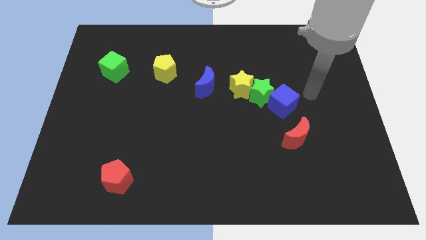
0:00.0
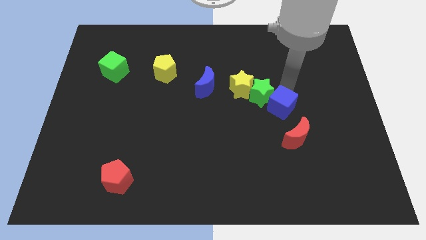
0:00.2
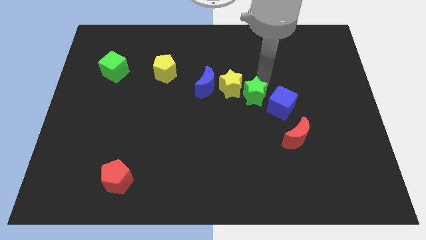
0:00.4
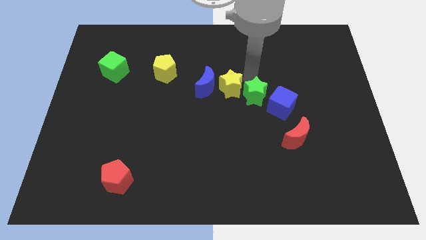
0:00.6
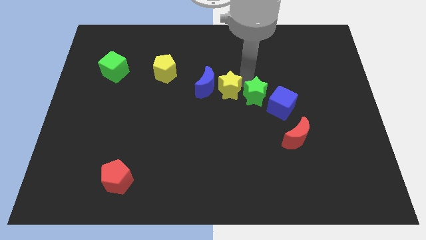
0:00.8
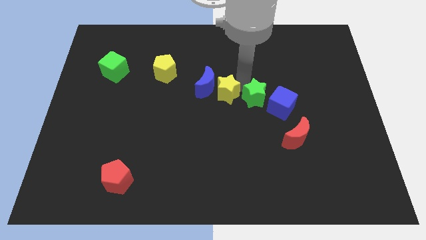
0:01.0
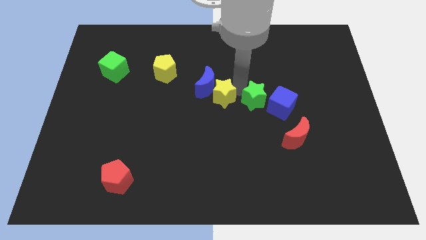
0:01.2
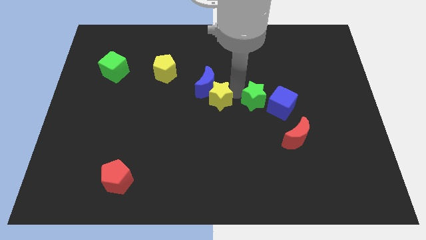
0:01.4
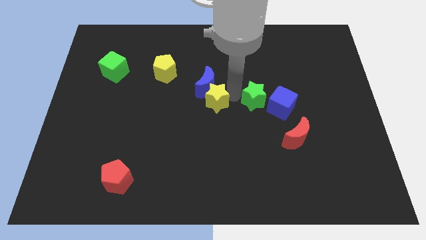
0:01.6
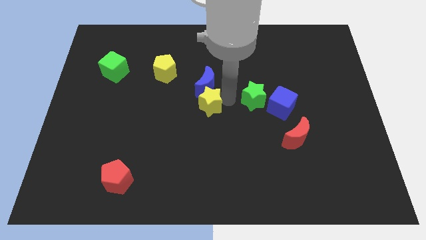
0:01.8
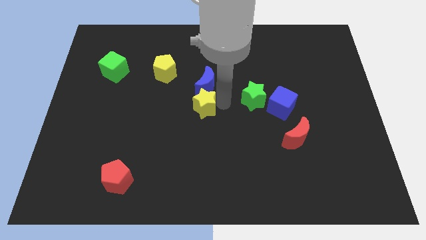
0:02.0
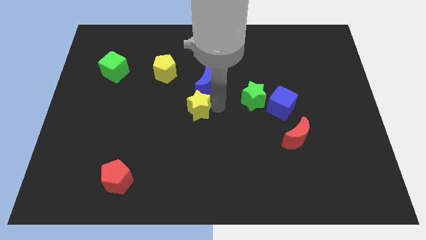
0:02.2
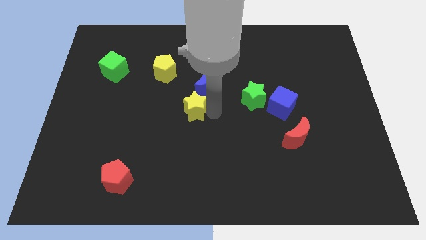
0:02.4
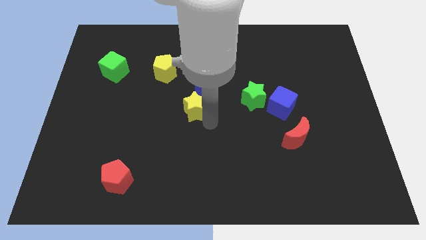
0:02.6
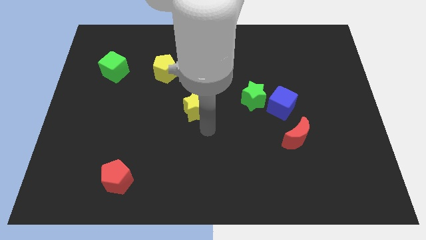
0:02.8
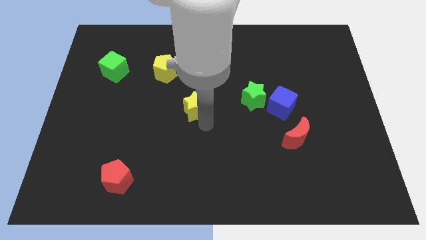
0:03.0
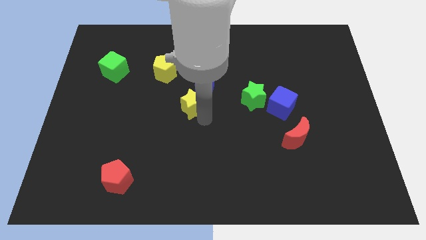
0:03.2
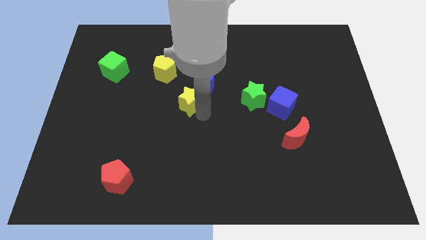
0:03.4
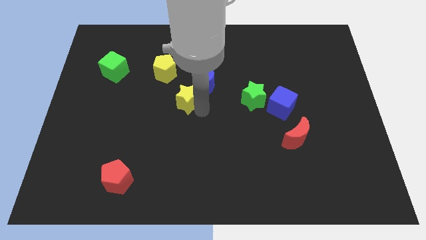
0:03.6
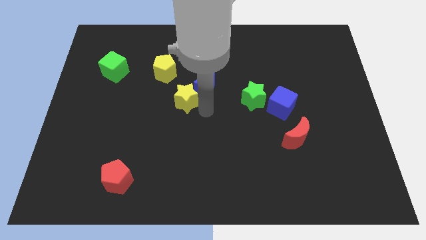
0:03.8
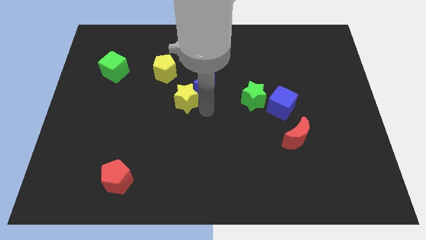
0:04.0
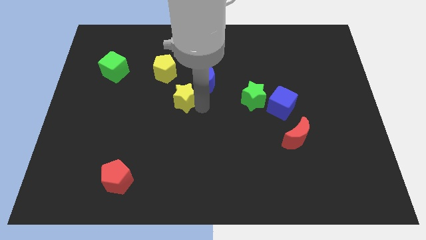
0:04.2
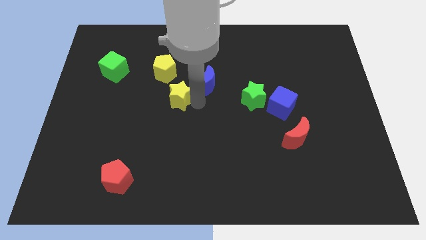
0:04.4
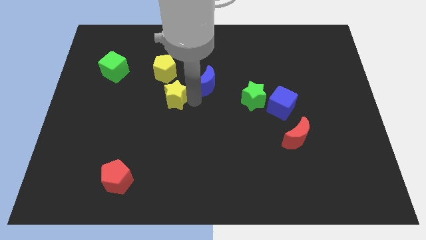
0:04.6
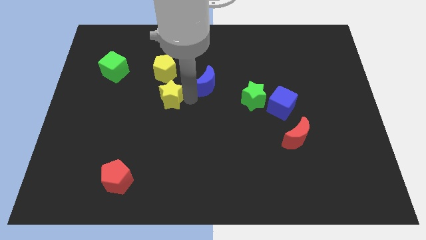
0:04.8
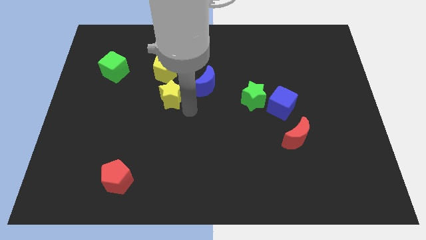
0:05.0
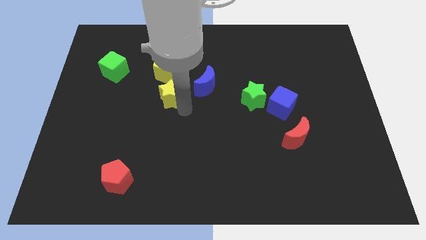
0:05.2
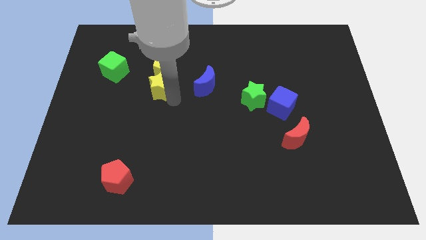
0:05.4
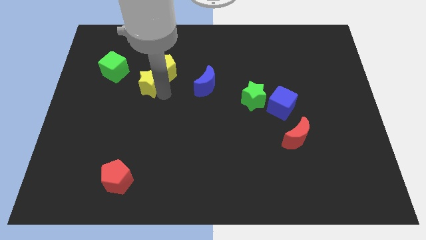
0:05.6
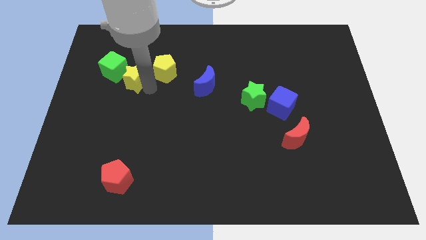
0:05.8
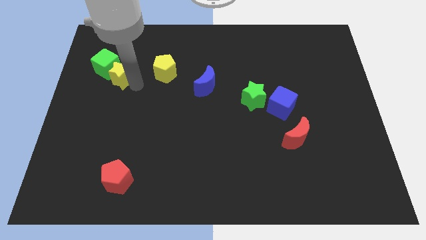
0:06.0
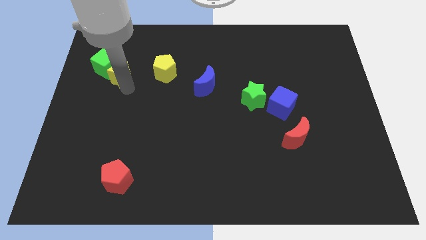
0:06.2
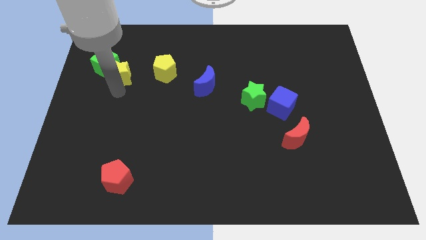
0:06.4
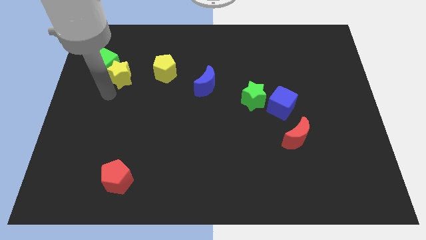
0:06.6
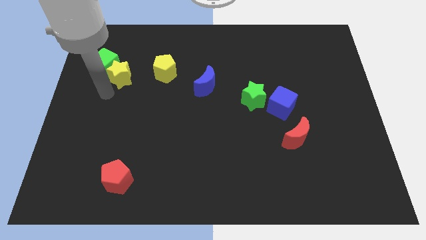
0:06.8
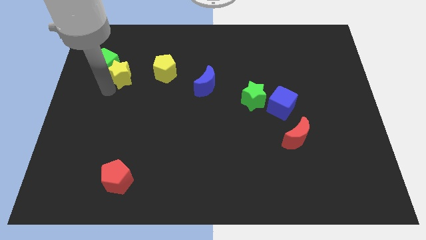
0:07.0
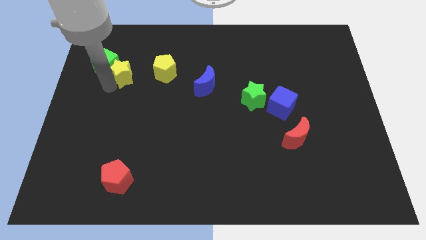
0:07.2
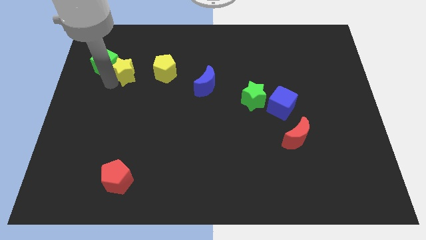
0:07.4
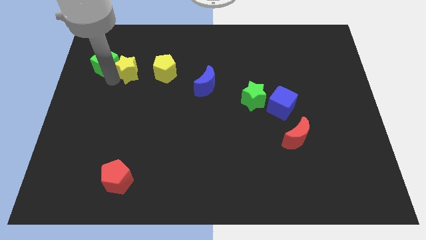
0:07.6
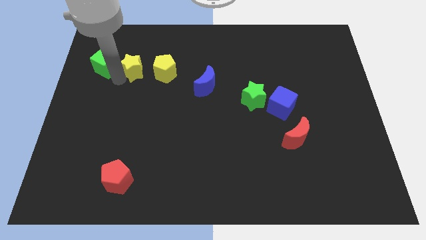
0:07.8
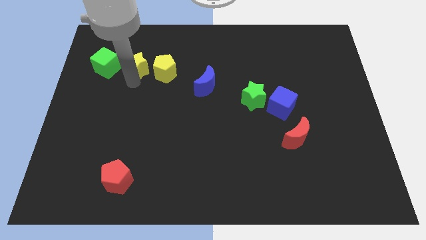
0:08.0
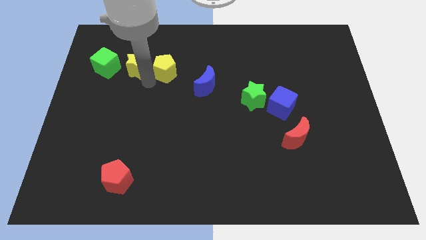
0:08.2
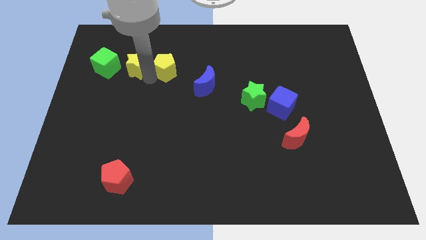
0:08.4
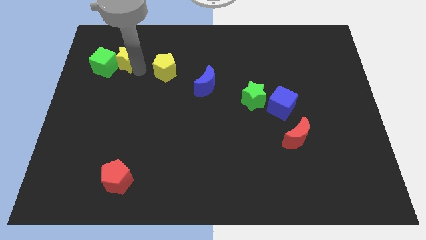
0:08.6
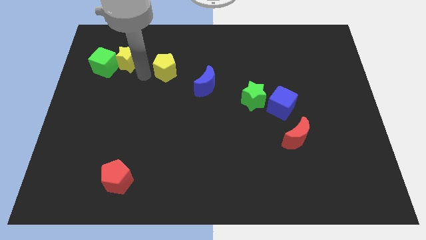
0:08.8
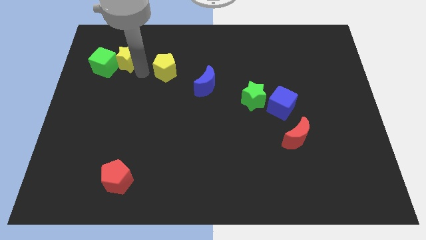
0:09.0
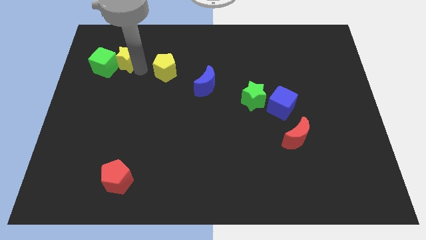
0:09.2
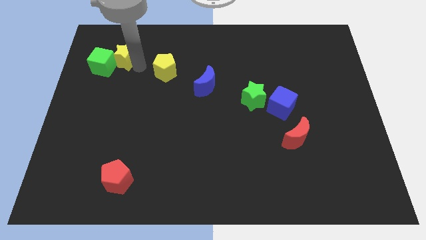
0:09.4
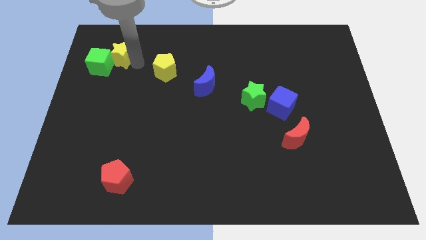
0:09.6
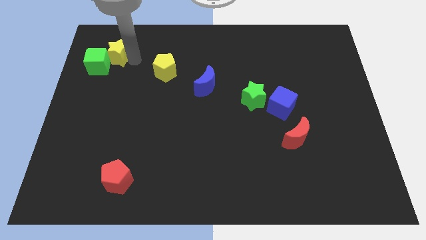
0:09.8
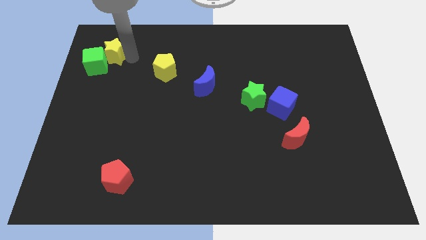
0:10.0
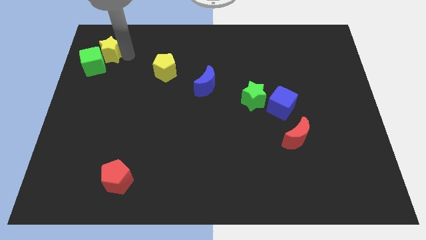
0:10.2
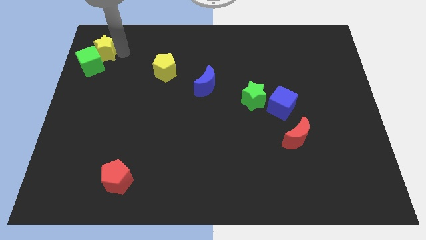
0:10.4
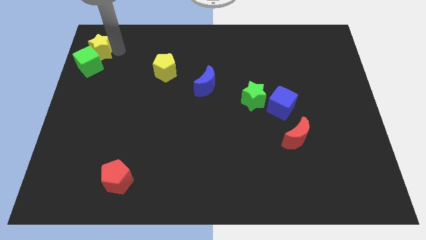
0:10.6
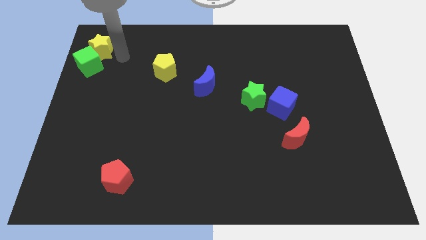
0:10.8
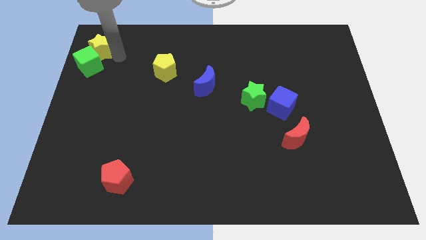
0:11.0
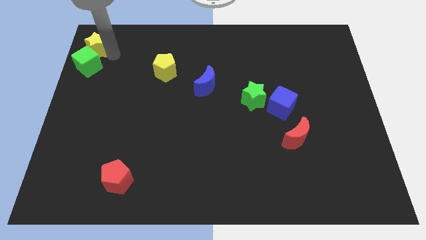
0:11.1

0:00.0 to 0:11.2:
move the yellow star to the top left of the board

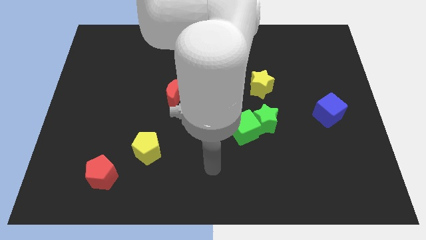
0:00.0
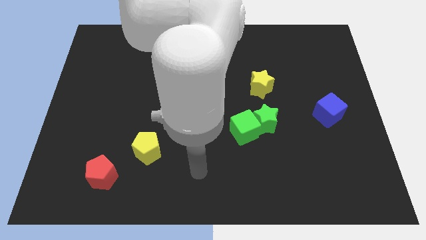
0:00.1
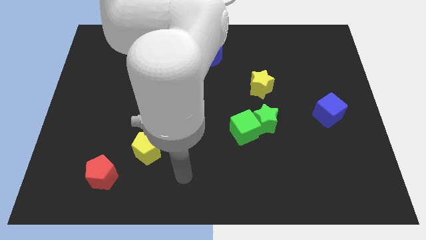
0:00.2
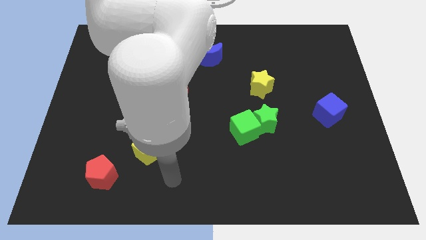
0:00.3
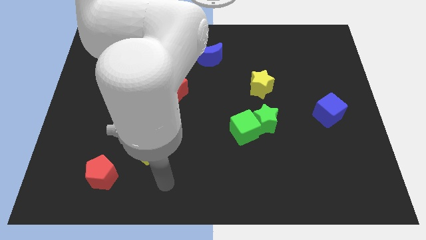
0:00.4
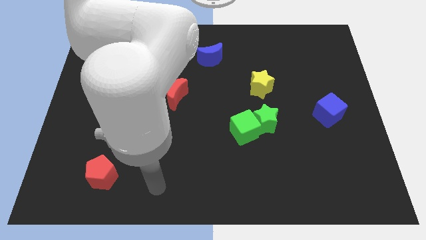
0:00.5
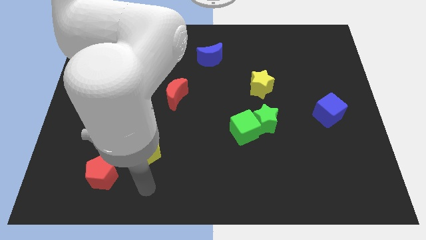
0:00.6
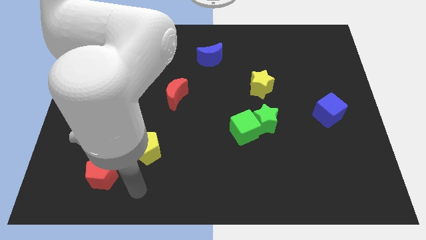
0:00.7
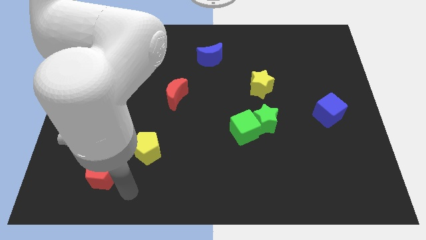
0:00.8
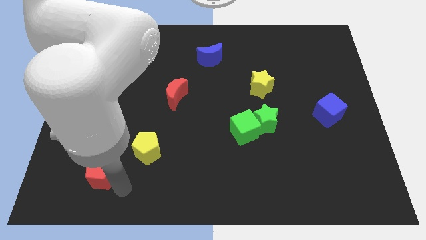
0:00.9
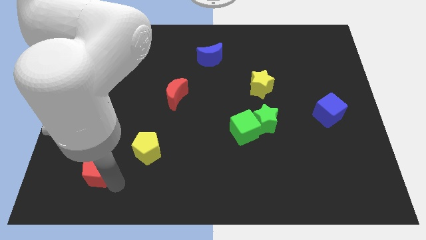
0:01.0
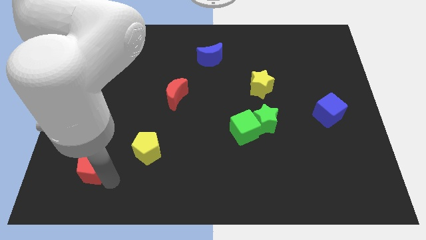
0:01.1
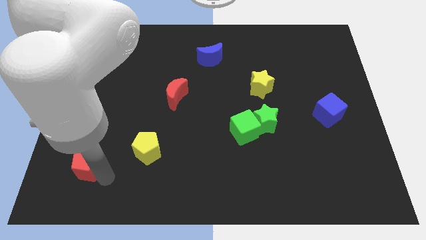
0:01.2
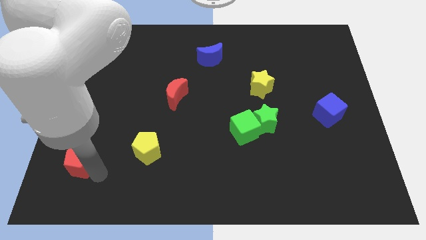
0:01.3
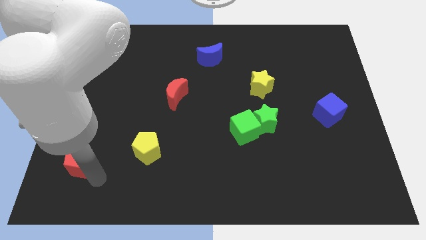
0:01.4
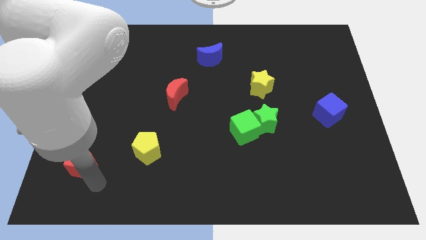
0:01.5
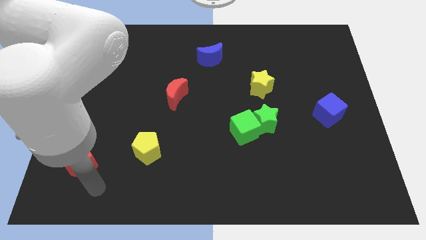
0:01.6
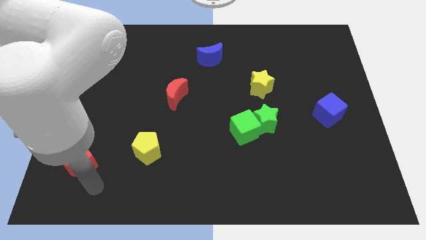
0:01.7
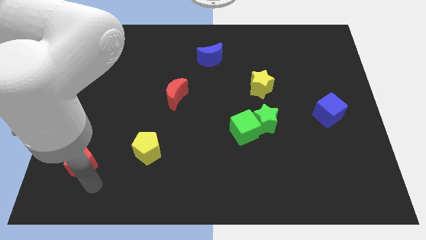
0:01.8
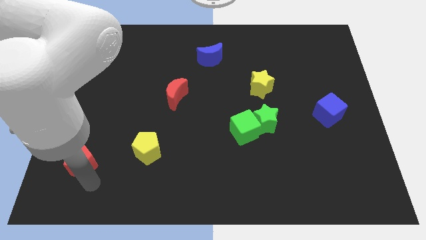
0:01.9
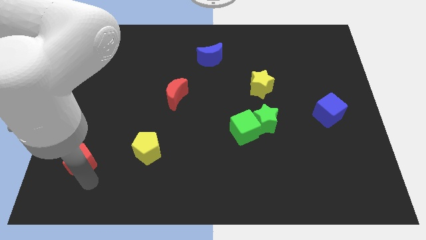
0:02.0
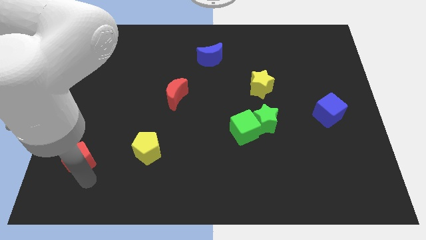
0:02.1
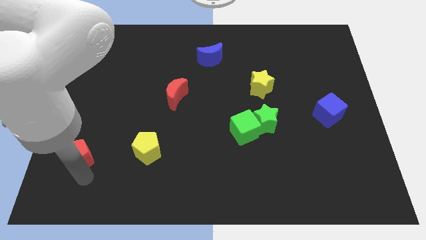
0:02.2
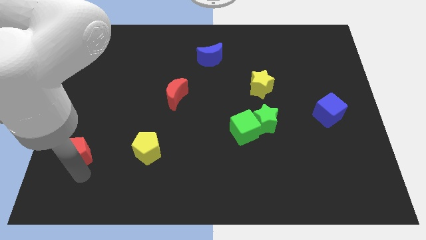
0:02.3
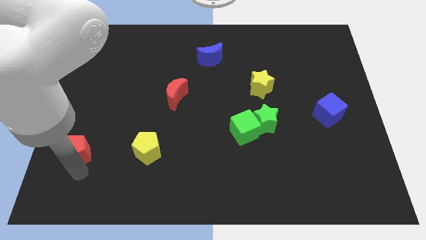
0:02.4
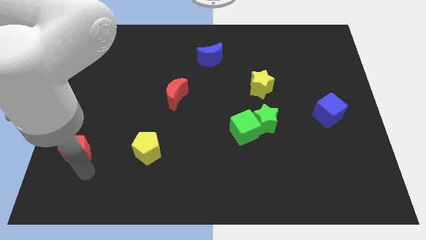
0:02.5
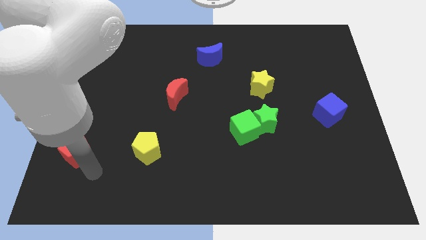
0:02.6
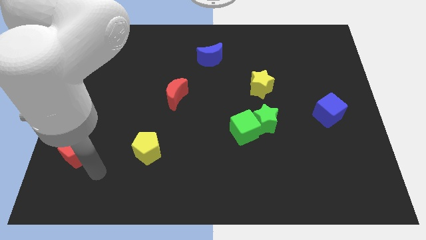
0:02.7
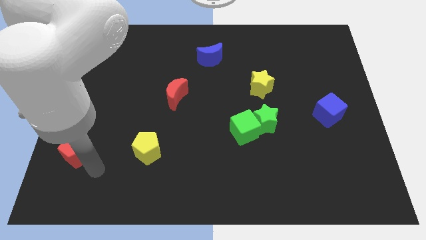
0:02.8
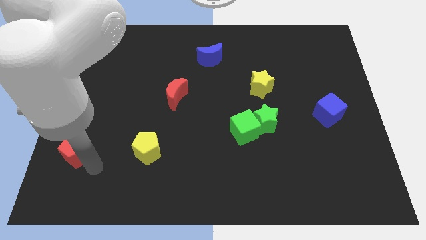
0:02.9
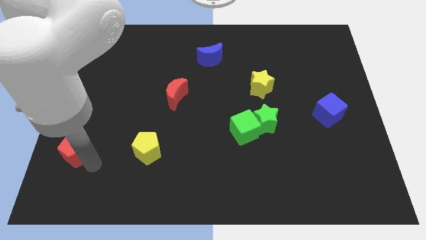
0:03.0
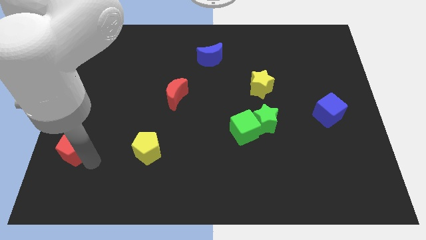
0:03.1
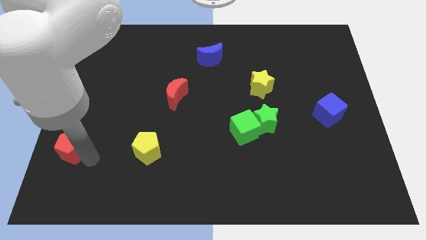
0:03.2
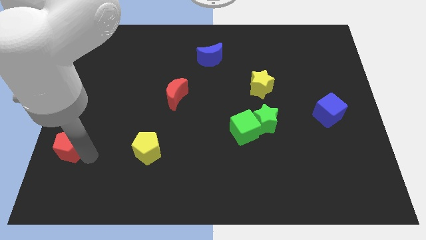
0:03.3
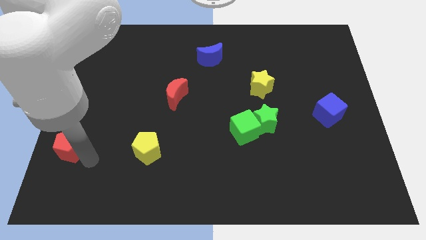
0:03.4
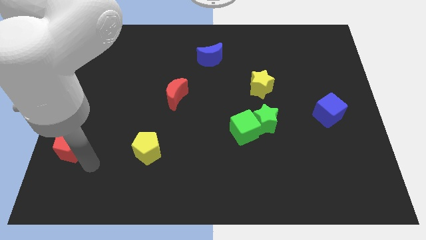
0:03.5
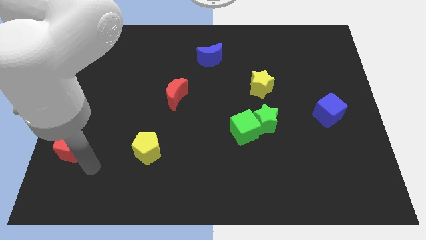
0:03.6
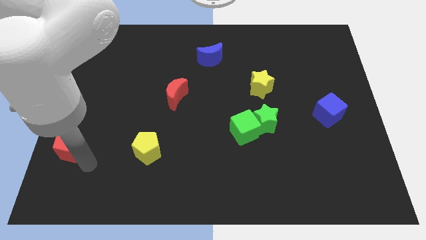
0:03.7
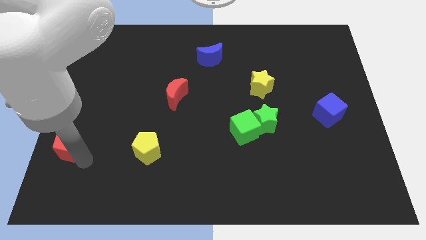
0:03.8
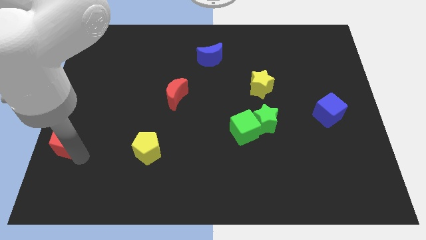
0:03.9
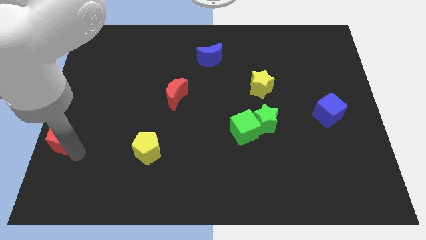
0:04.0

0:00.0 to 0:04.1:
put the red pentagon to the center left
